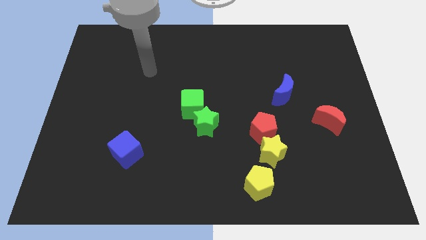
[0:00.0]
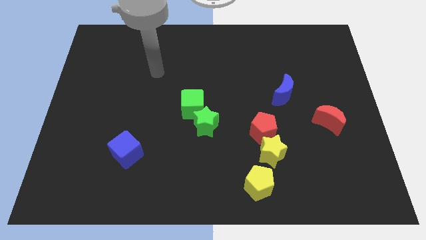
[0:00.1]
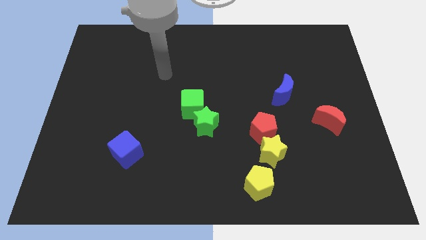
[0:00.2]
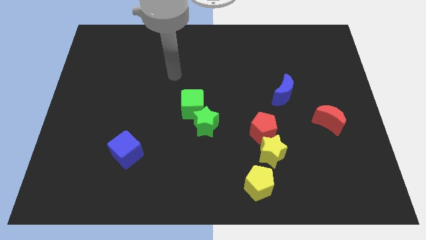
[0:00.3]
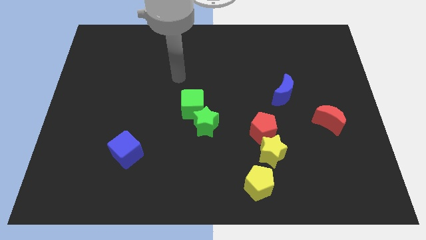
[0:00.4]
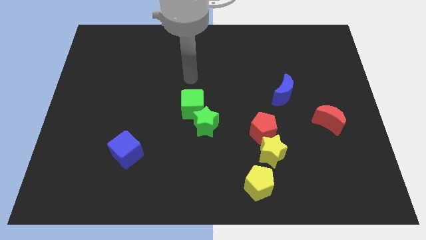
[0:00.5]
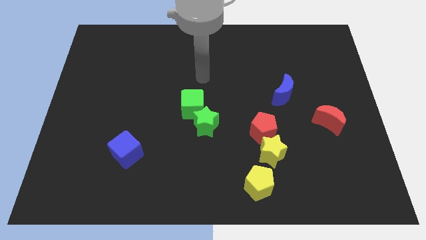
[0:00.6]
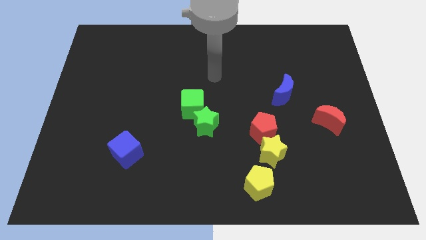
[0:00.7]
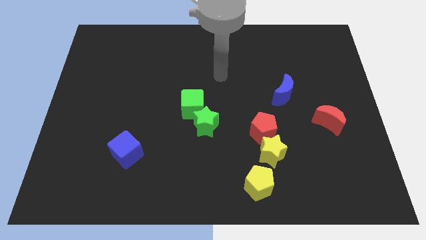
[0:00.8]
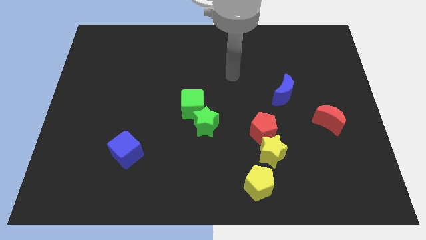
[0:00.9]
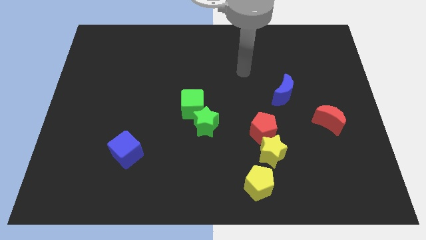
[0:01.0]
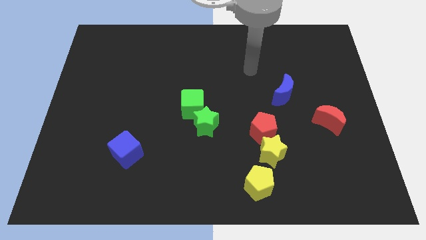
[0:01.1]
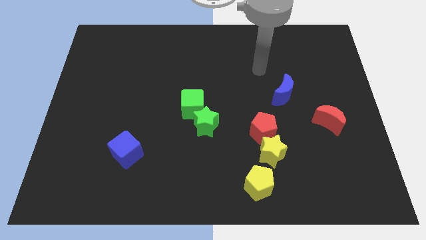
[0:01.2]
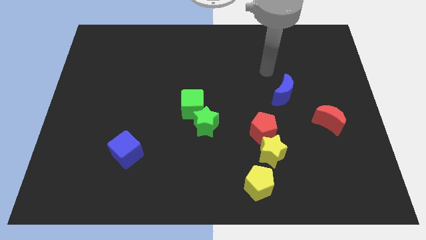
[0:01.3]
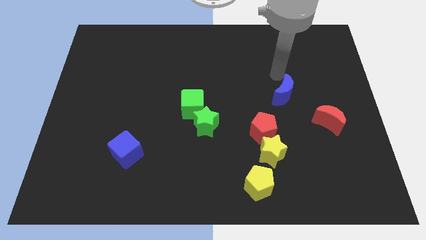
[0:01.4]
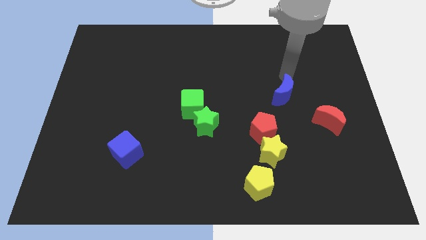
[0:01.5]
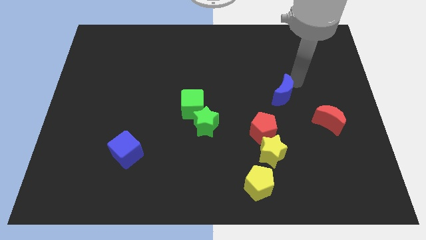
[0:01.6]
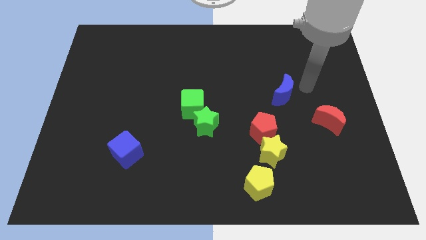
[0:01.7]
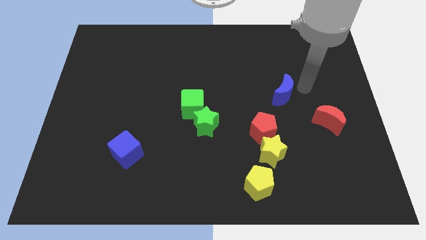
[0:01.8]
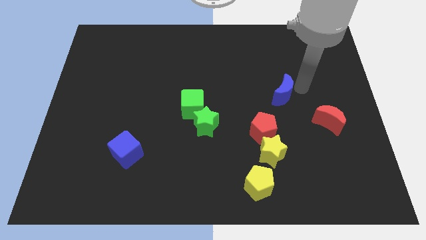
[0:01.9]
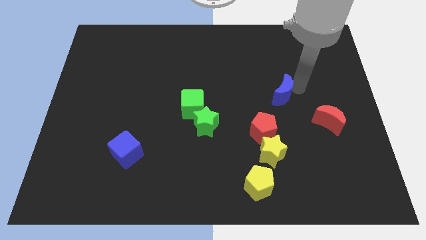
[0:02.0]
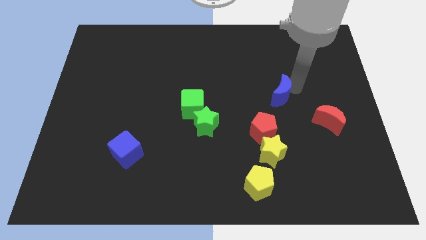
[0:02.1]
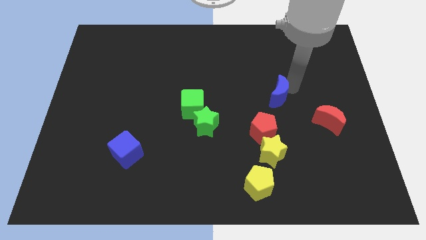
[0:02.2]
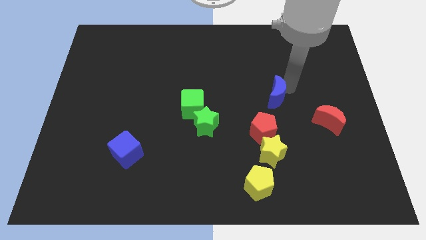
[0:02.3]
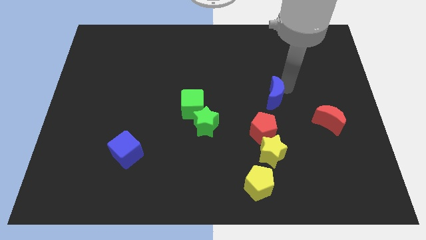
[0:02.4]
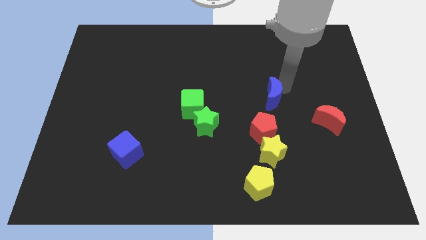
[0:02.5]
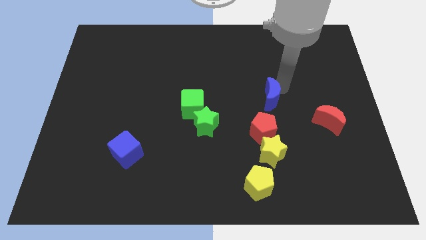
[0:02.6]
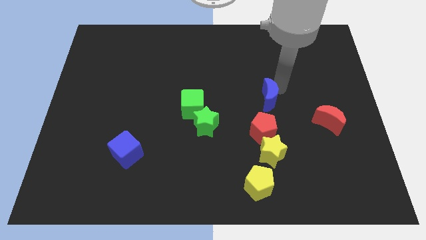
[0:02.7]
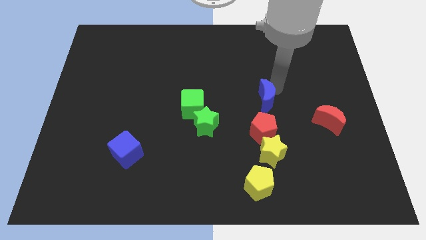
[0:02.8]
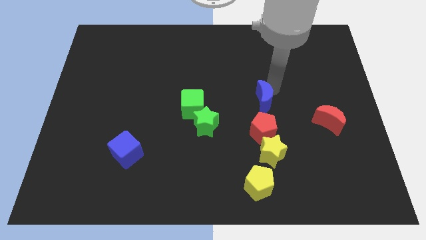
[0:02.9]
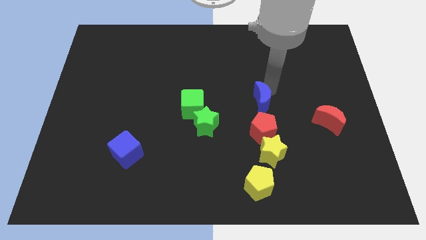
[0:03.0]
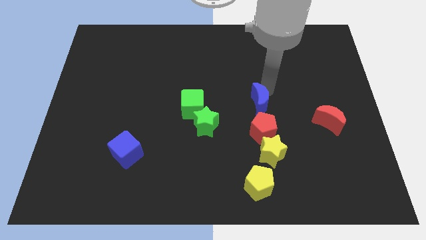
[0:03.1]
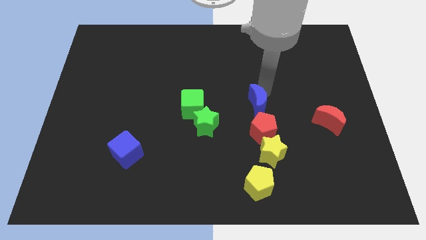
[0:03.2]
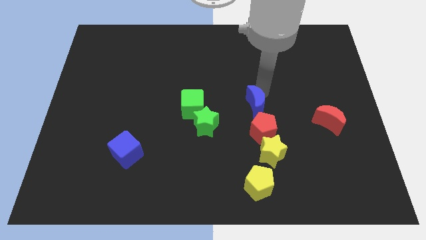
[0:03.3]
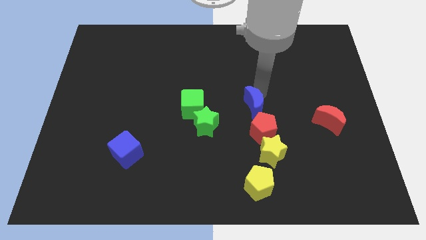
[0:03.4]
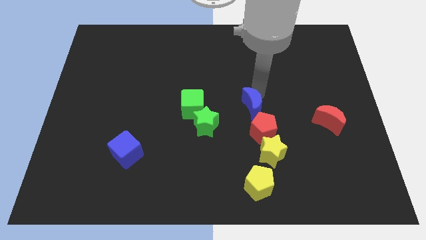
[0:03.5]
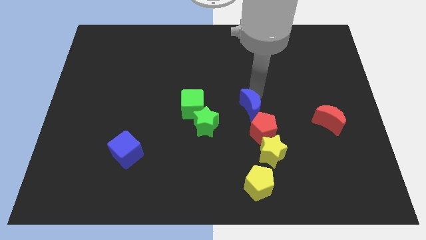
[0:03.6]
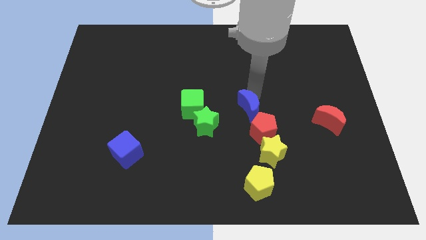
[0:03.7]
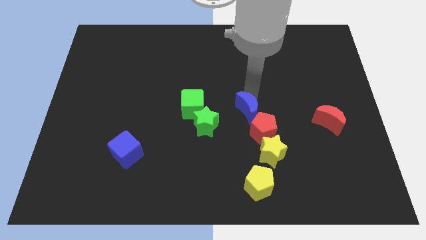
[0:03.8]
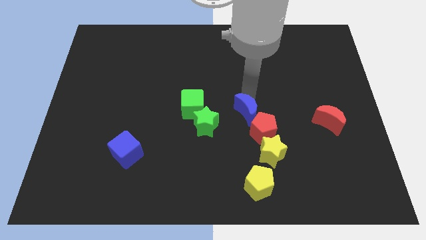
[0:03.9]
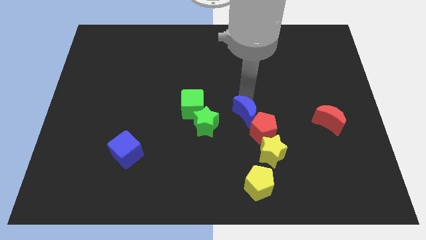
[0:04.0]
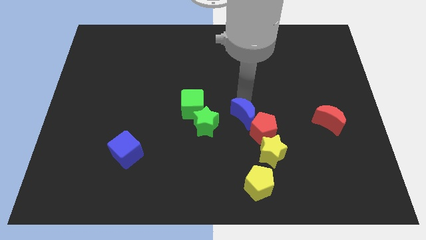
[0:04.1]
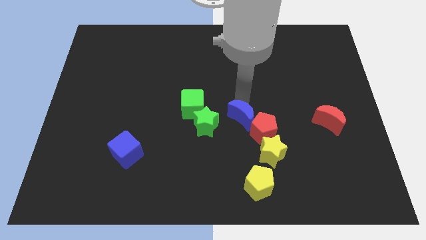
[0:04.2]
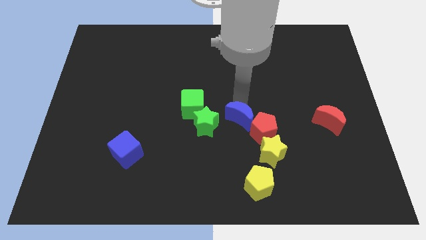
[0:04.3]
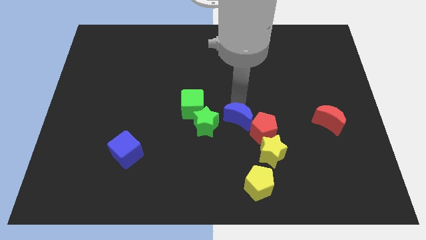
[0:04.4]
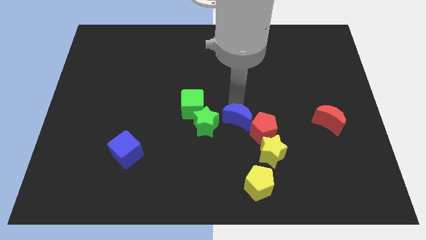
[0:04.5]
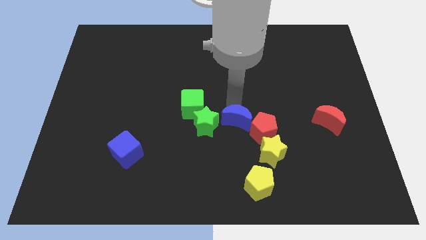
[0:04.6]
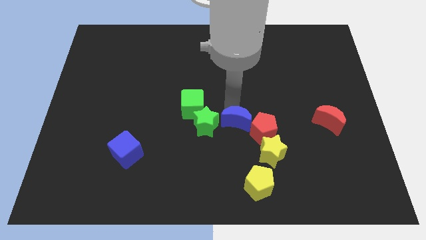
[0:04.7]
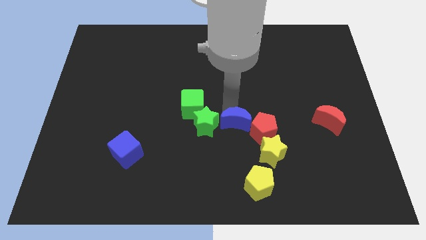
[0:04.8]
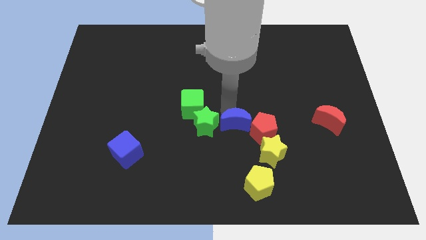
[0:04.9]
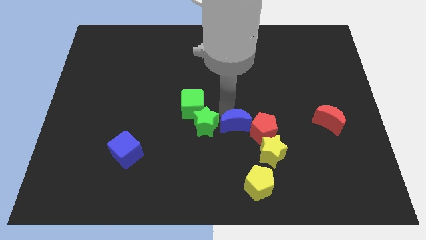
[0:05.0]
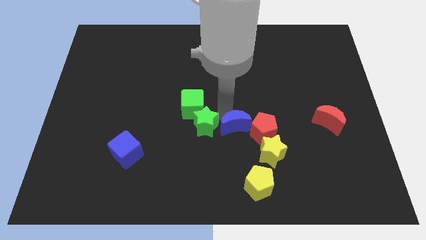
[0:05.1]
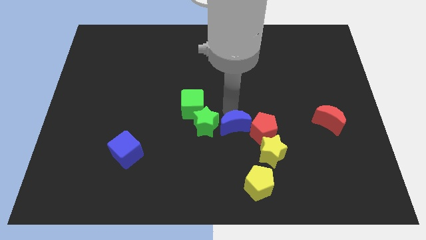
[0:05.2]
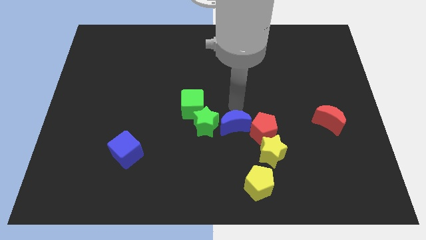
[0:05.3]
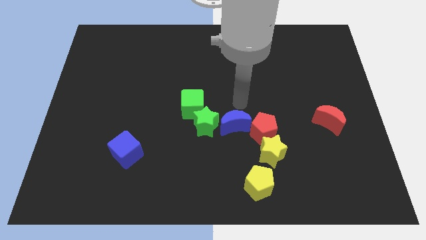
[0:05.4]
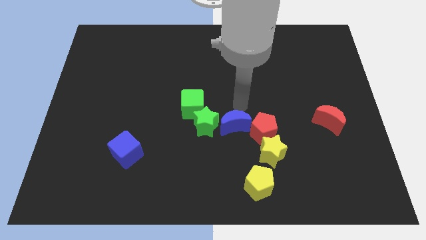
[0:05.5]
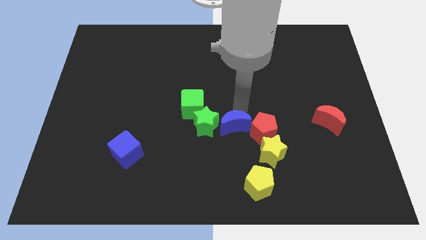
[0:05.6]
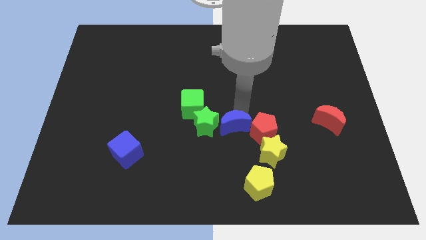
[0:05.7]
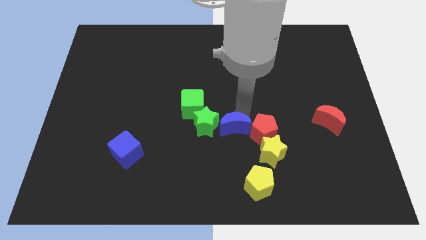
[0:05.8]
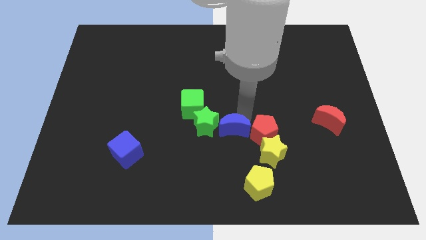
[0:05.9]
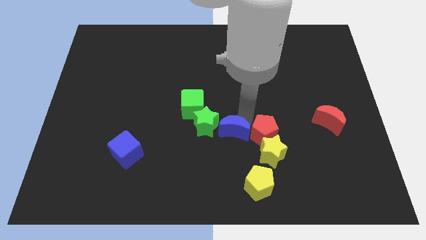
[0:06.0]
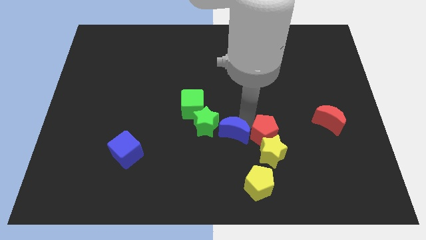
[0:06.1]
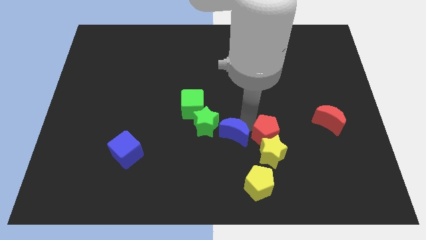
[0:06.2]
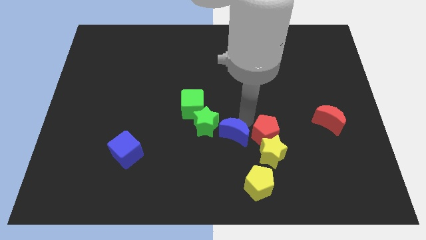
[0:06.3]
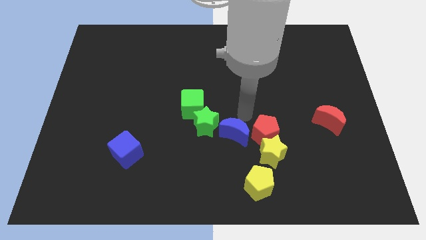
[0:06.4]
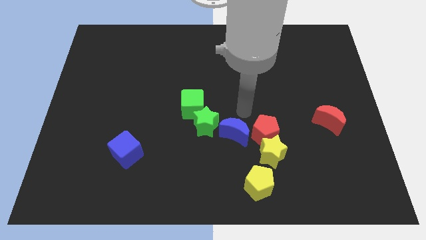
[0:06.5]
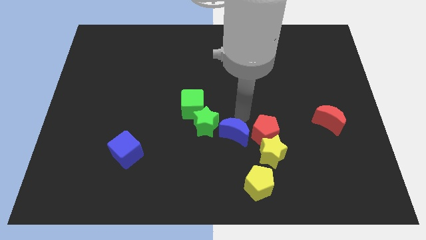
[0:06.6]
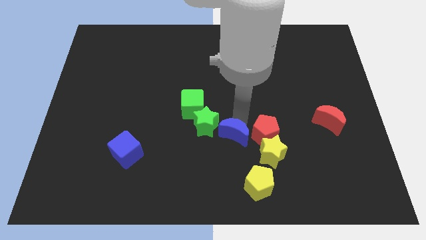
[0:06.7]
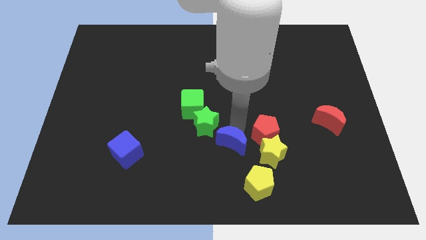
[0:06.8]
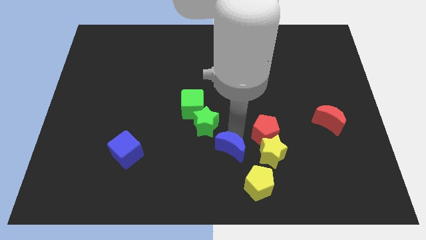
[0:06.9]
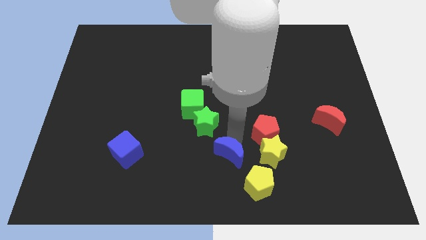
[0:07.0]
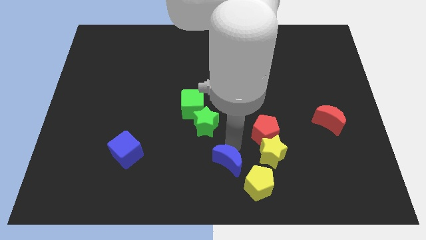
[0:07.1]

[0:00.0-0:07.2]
push the blue moon to the bottom
